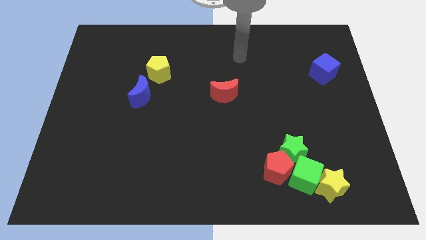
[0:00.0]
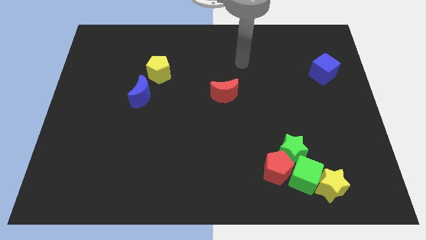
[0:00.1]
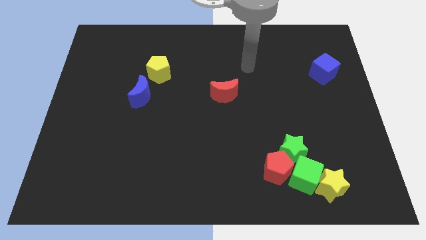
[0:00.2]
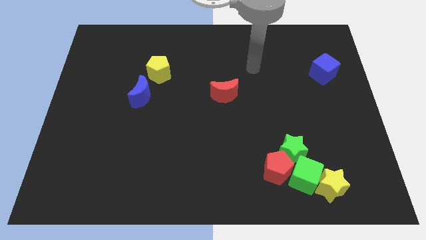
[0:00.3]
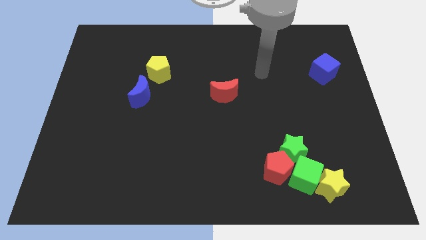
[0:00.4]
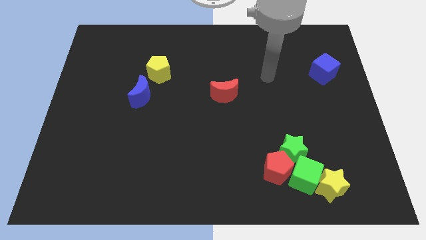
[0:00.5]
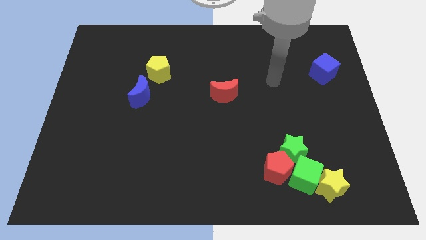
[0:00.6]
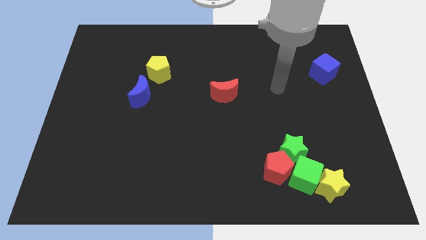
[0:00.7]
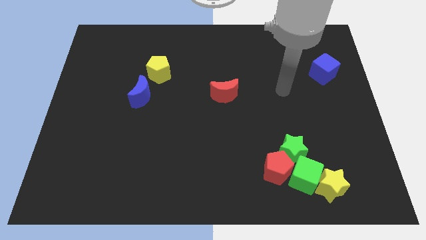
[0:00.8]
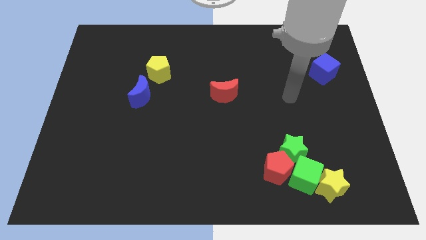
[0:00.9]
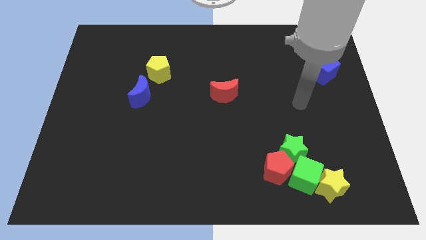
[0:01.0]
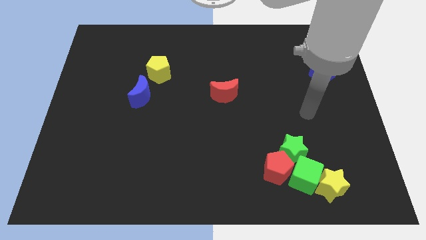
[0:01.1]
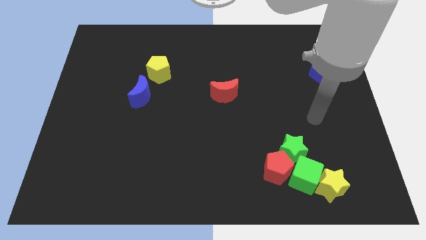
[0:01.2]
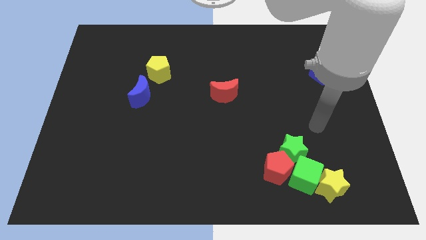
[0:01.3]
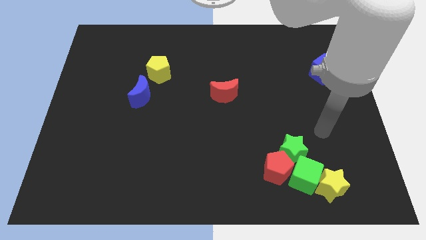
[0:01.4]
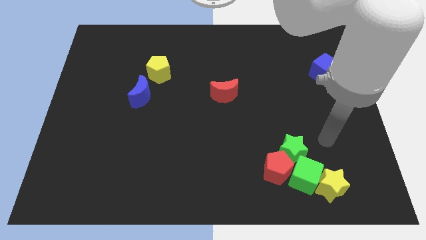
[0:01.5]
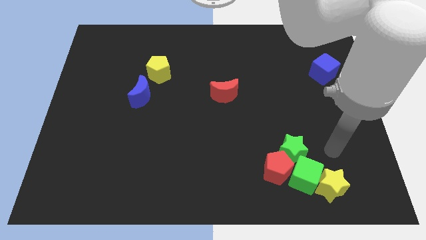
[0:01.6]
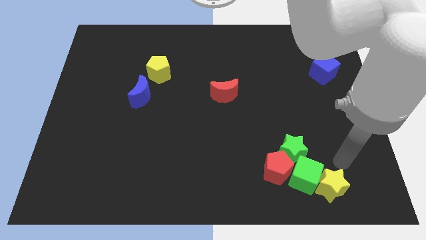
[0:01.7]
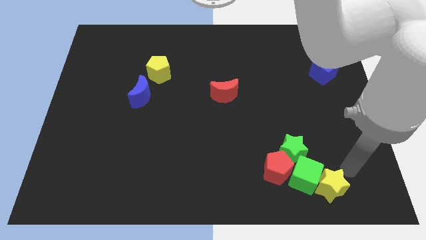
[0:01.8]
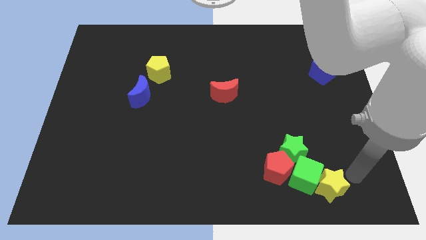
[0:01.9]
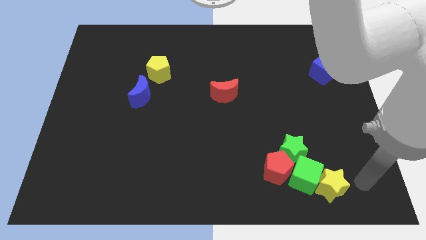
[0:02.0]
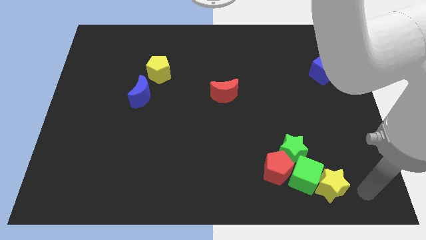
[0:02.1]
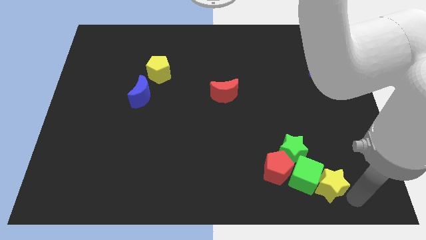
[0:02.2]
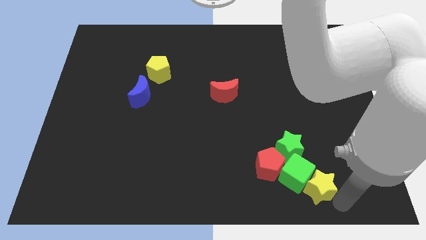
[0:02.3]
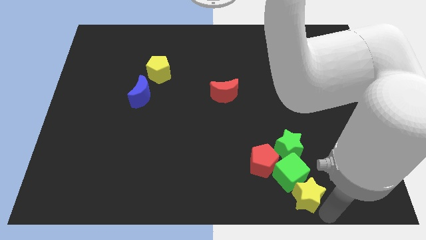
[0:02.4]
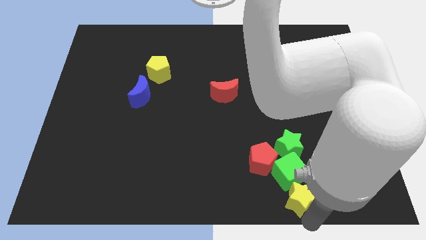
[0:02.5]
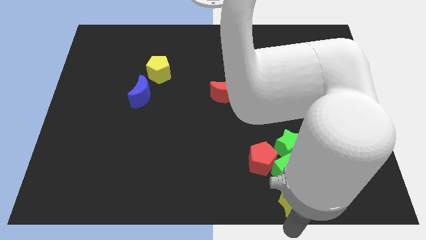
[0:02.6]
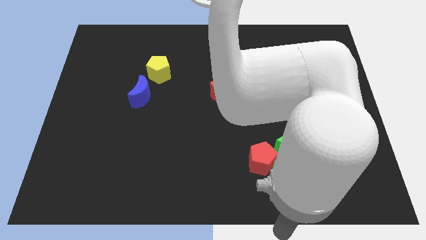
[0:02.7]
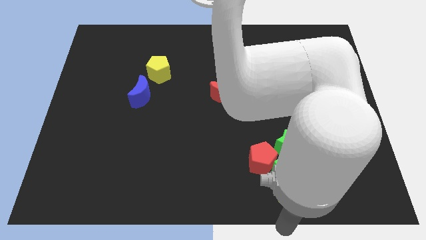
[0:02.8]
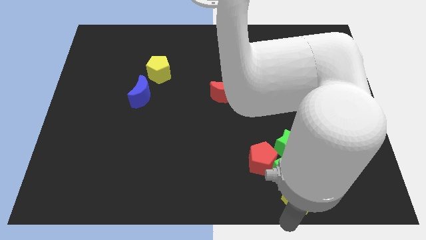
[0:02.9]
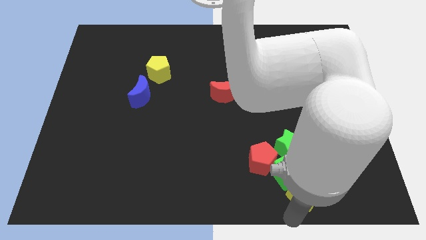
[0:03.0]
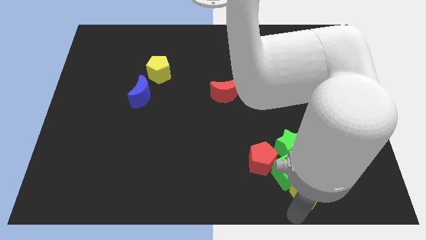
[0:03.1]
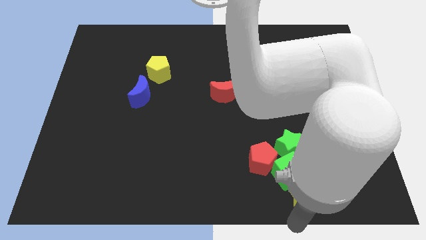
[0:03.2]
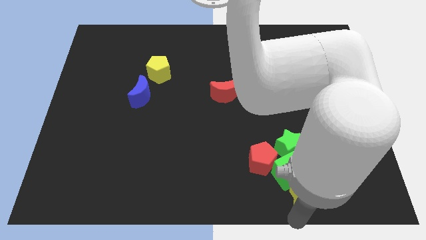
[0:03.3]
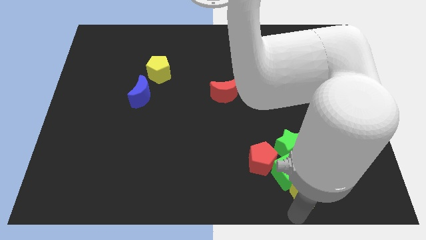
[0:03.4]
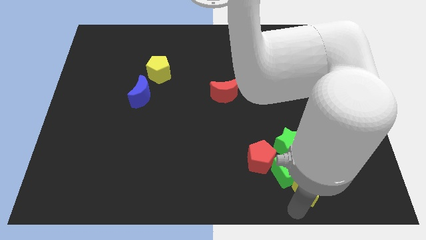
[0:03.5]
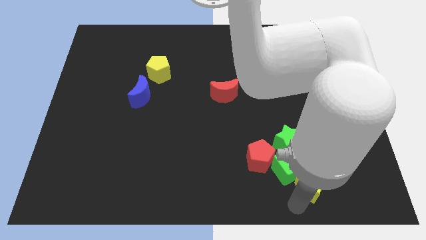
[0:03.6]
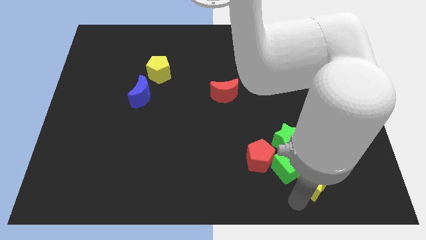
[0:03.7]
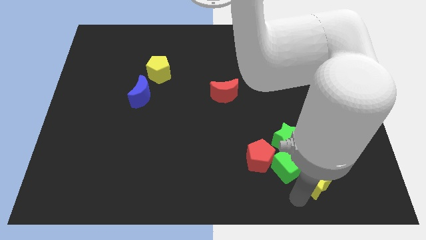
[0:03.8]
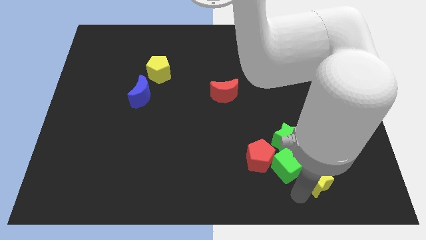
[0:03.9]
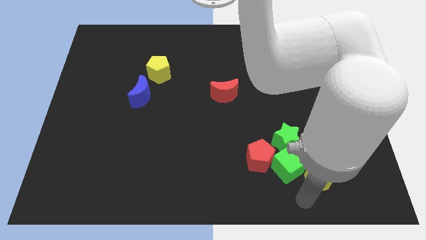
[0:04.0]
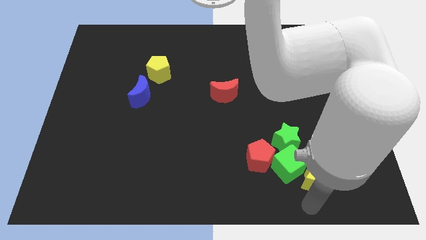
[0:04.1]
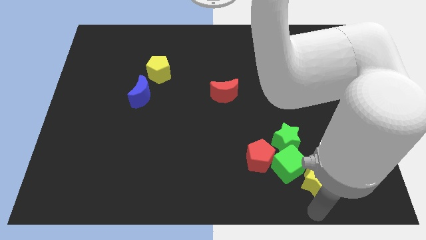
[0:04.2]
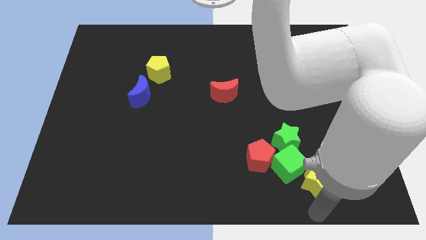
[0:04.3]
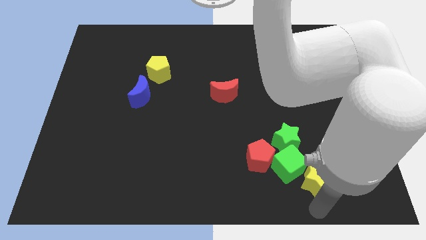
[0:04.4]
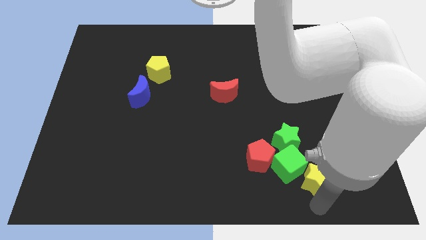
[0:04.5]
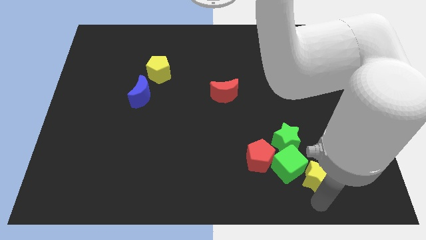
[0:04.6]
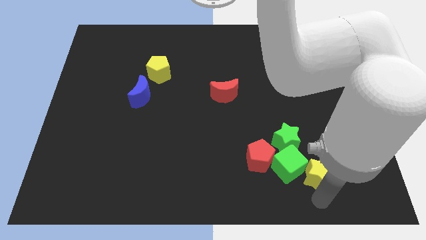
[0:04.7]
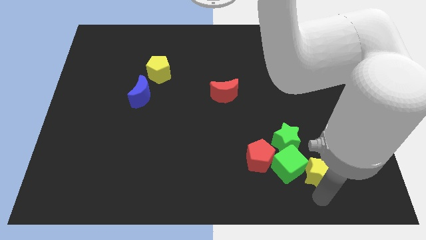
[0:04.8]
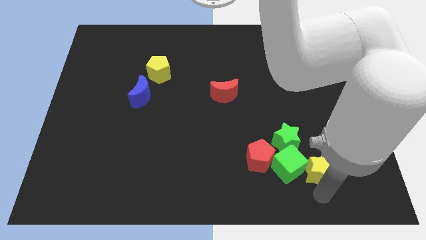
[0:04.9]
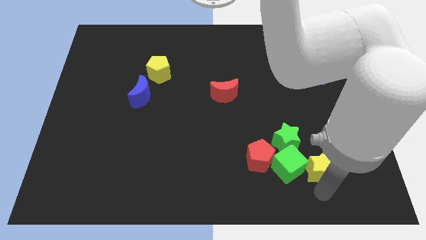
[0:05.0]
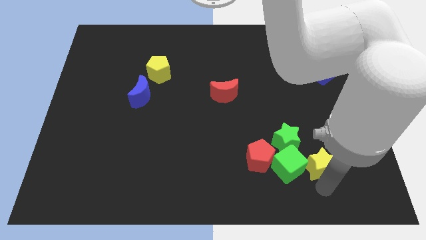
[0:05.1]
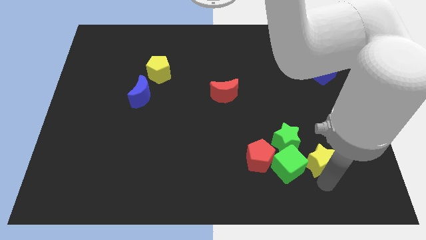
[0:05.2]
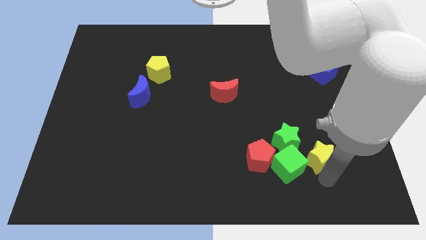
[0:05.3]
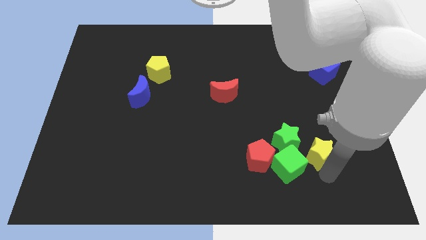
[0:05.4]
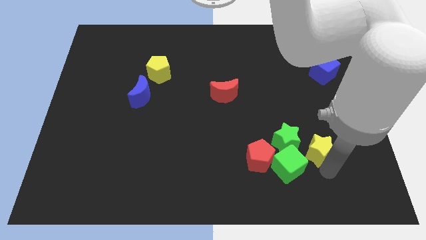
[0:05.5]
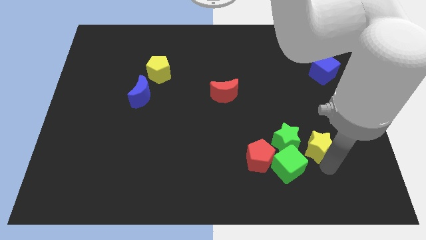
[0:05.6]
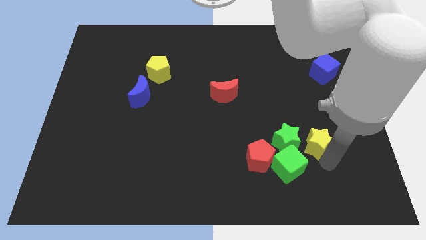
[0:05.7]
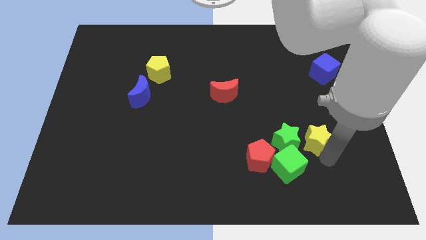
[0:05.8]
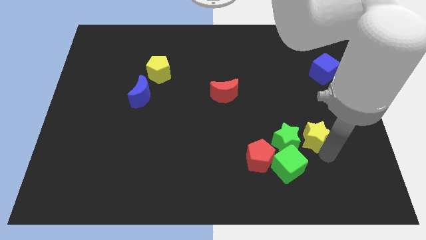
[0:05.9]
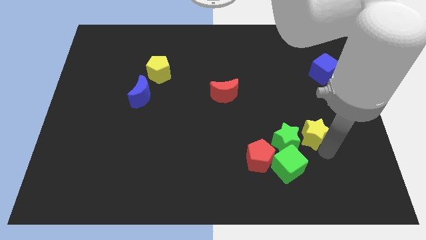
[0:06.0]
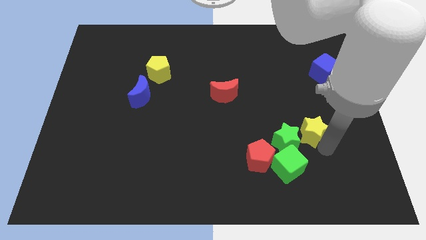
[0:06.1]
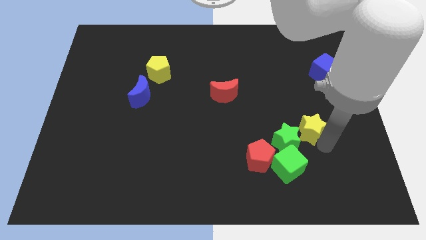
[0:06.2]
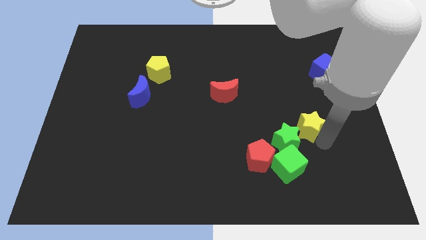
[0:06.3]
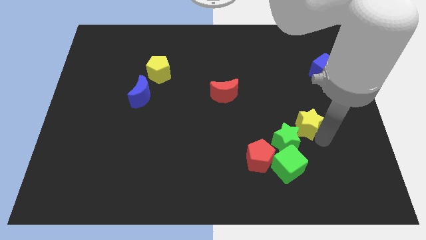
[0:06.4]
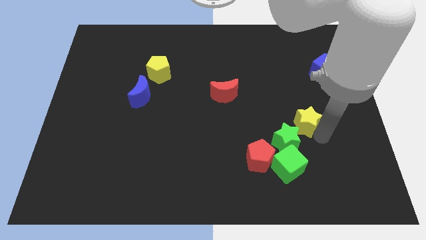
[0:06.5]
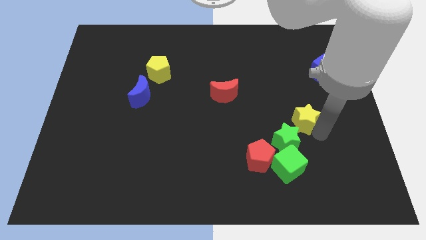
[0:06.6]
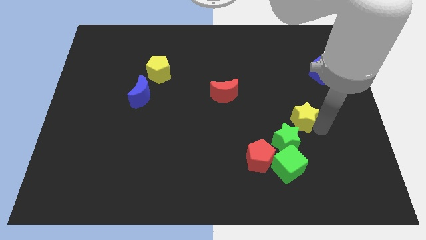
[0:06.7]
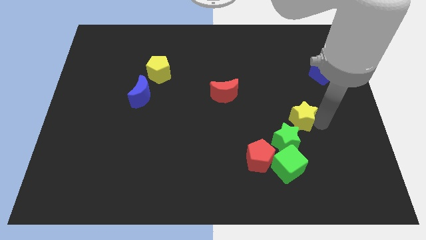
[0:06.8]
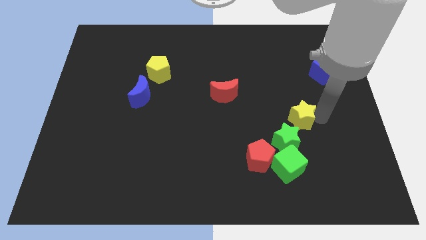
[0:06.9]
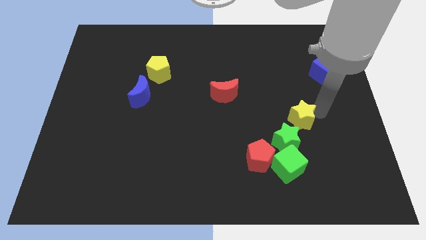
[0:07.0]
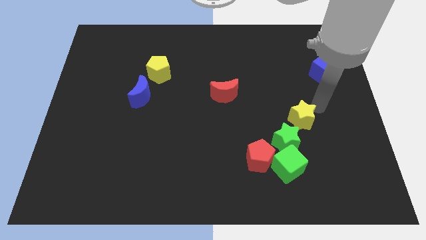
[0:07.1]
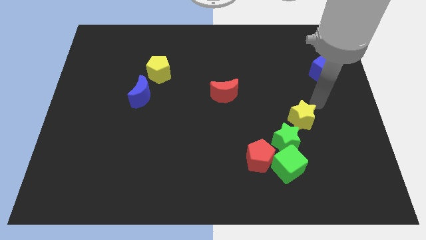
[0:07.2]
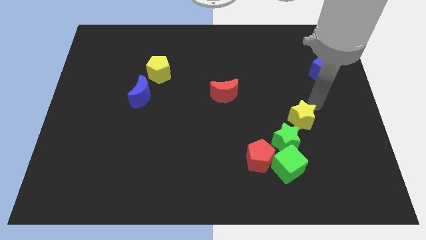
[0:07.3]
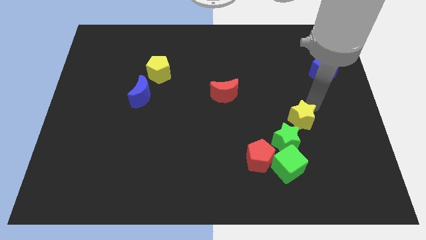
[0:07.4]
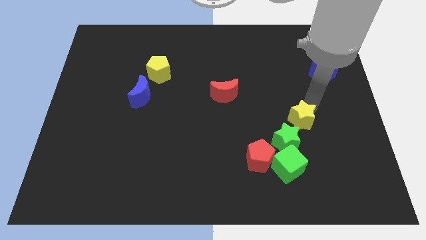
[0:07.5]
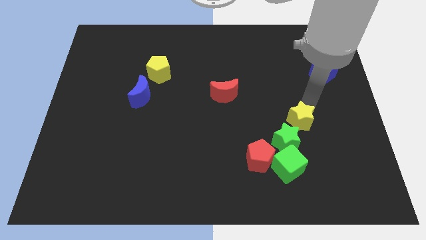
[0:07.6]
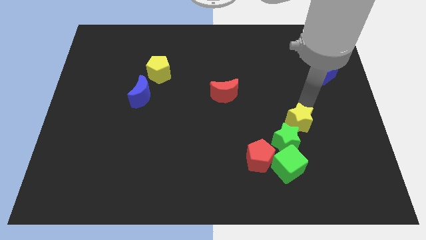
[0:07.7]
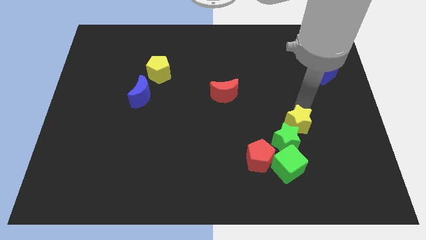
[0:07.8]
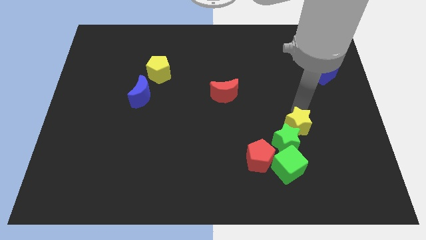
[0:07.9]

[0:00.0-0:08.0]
move the yellow star to the top right side of the red pentagon
